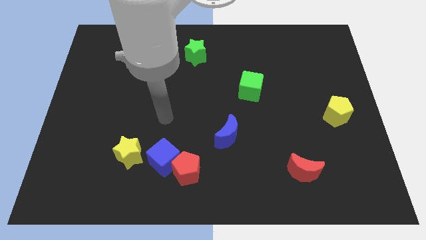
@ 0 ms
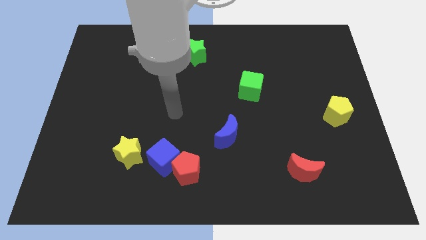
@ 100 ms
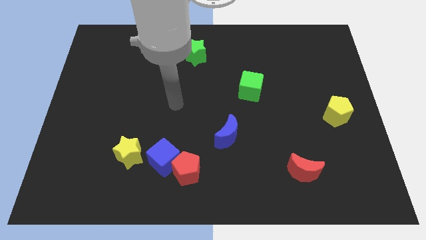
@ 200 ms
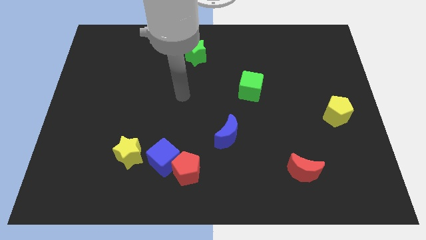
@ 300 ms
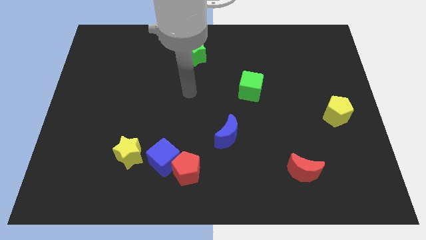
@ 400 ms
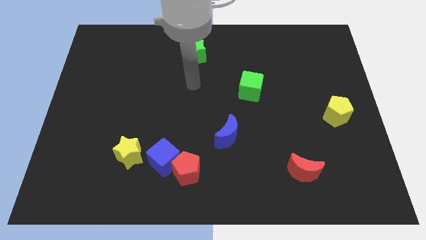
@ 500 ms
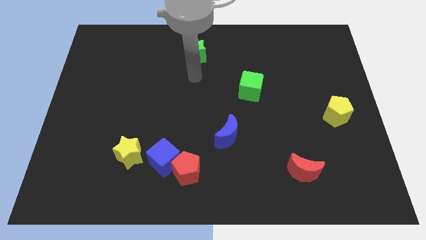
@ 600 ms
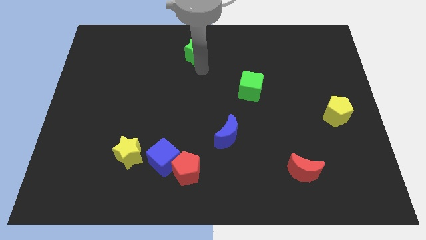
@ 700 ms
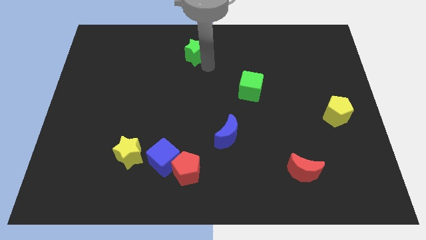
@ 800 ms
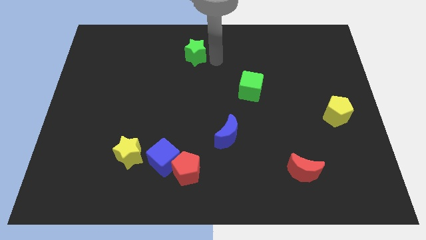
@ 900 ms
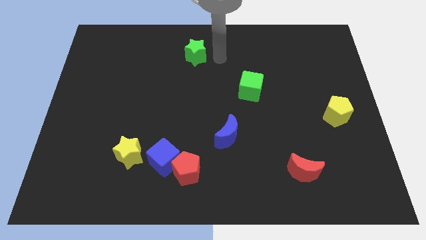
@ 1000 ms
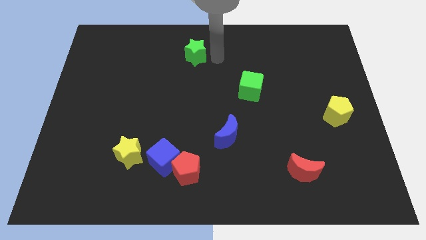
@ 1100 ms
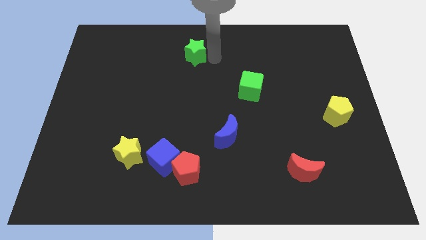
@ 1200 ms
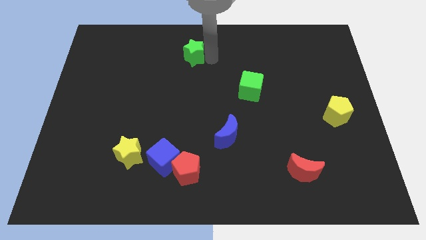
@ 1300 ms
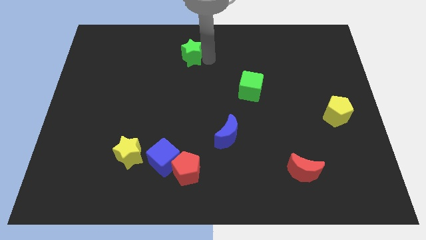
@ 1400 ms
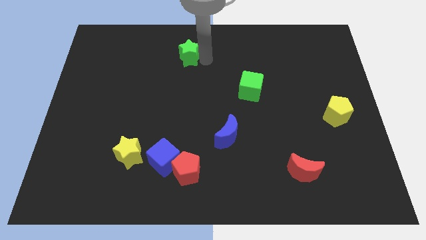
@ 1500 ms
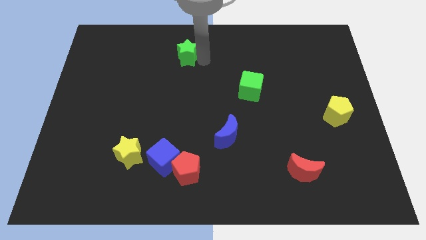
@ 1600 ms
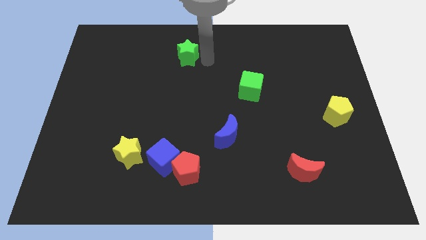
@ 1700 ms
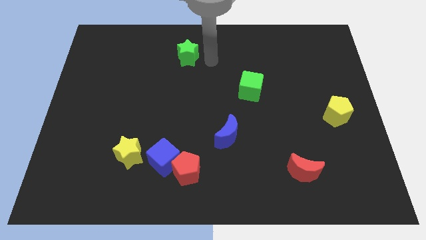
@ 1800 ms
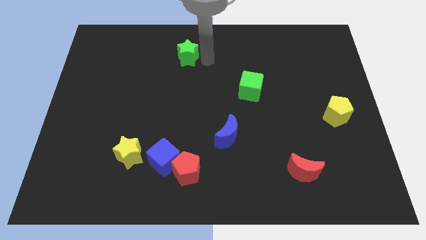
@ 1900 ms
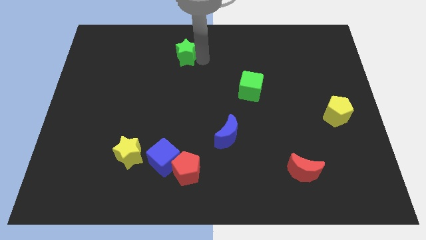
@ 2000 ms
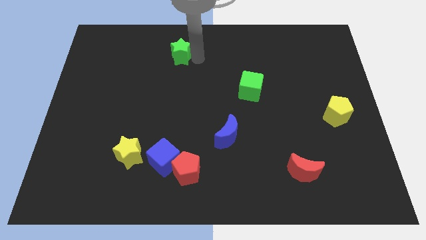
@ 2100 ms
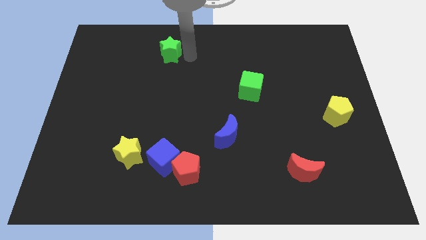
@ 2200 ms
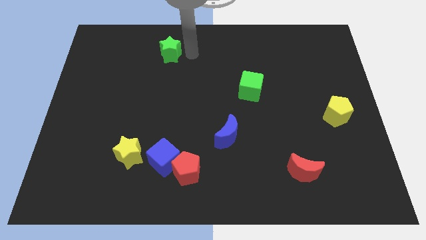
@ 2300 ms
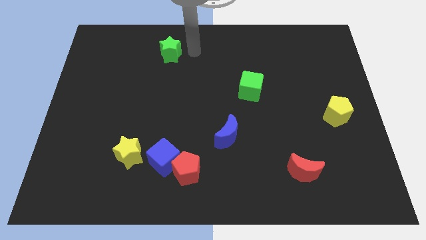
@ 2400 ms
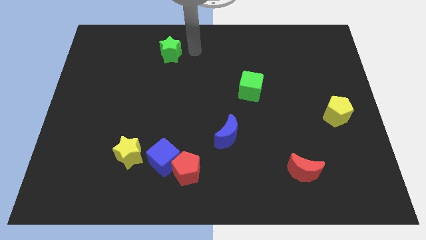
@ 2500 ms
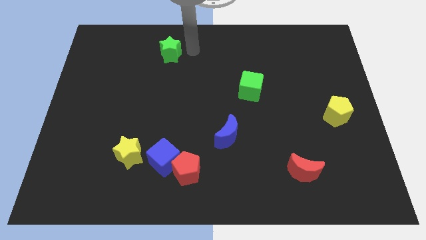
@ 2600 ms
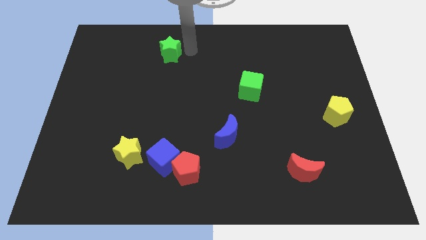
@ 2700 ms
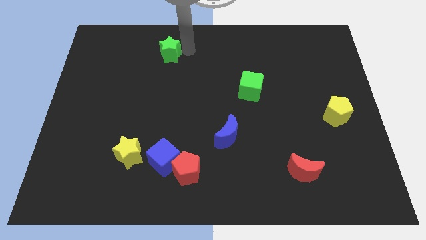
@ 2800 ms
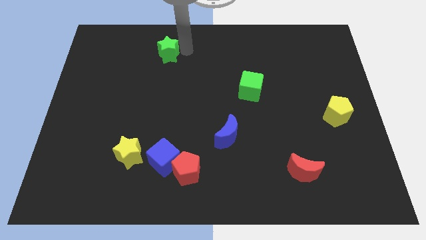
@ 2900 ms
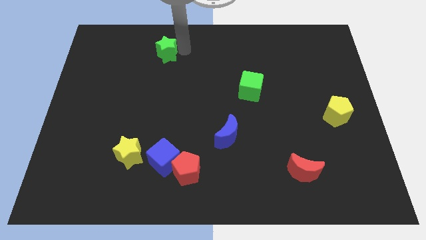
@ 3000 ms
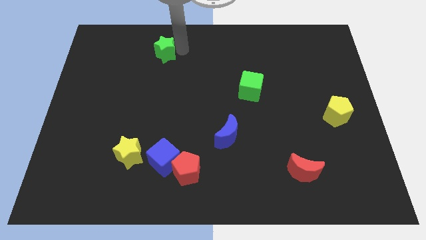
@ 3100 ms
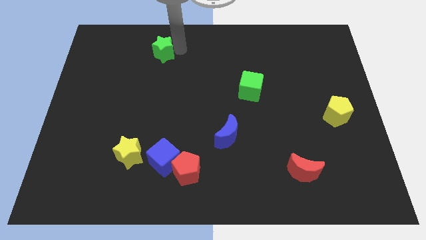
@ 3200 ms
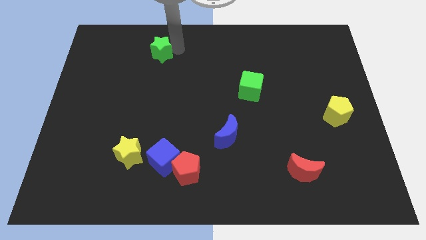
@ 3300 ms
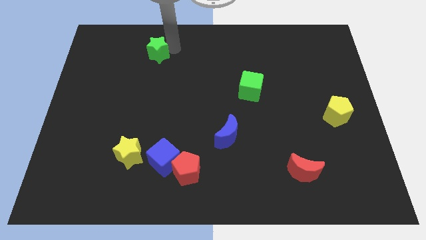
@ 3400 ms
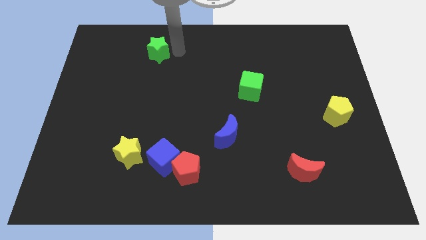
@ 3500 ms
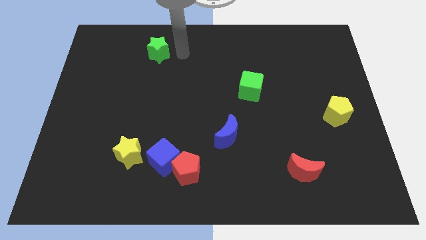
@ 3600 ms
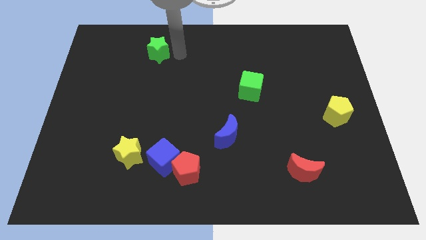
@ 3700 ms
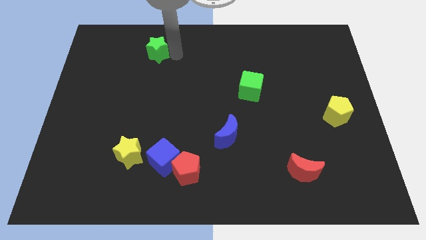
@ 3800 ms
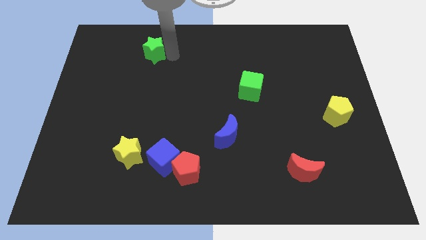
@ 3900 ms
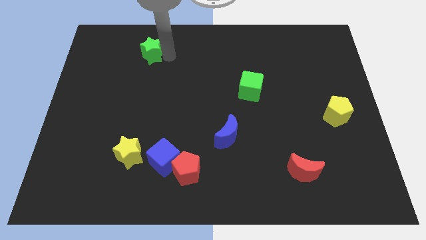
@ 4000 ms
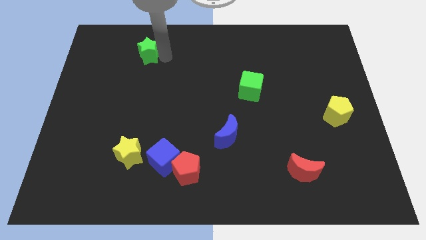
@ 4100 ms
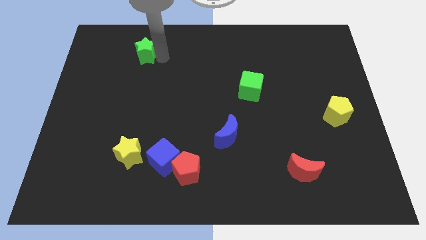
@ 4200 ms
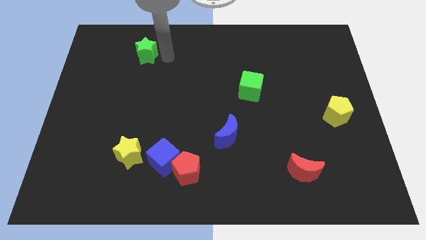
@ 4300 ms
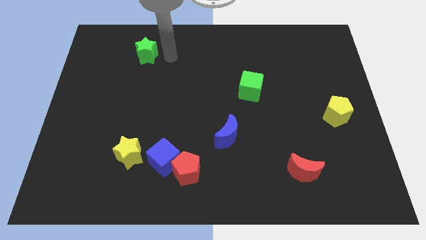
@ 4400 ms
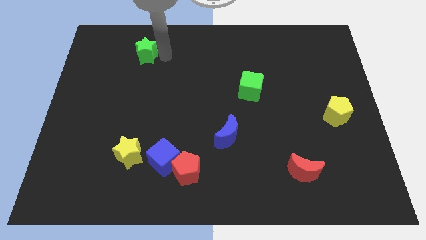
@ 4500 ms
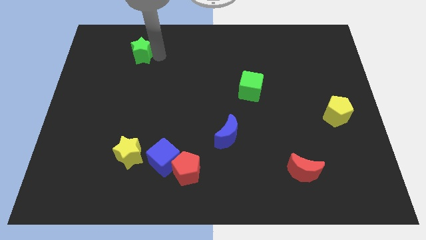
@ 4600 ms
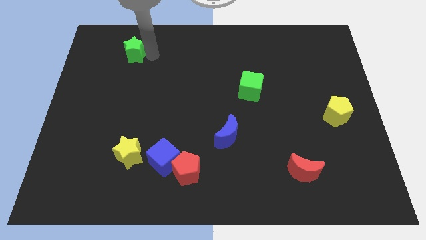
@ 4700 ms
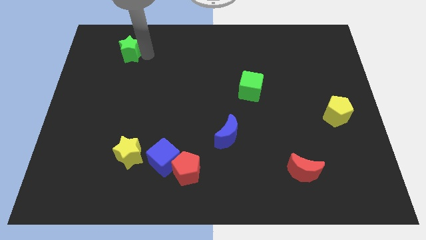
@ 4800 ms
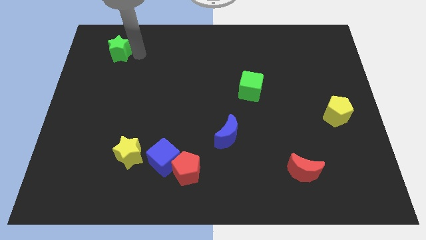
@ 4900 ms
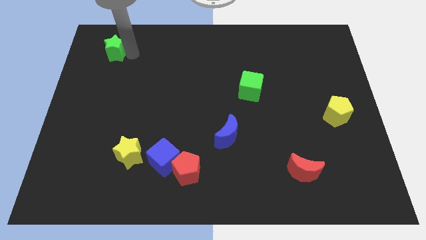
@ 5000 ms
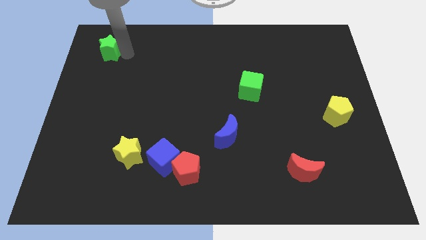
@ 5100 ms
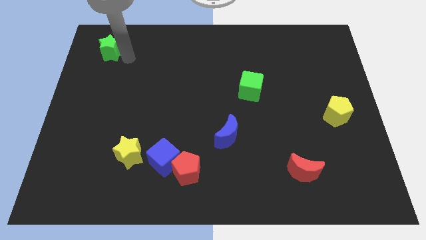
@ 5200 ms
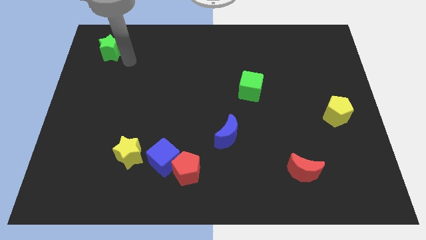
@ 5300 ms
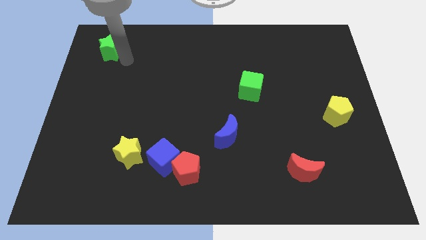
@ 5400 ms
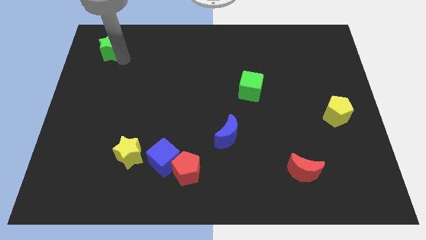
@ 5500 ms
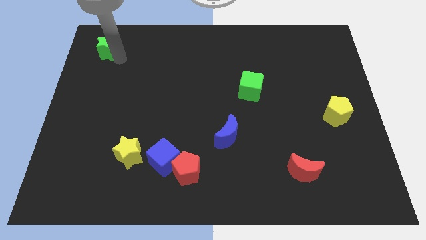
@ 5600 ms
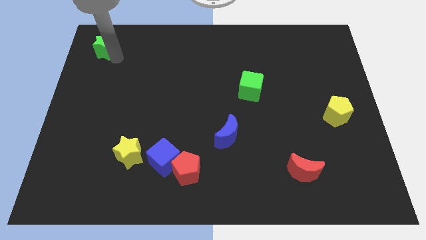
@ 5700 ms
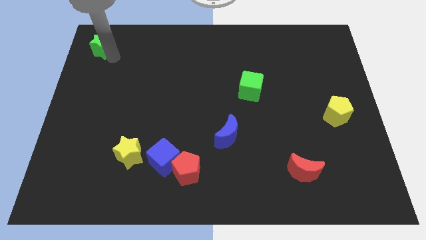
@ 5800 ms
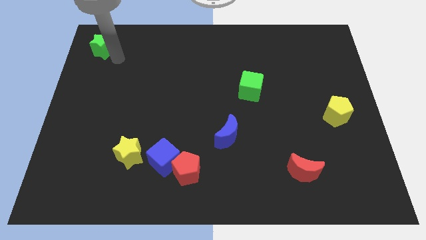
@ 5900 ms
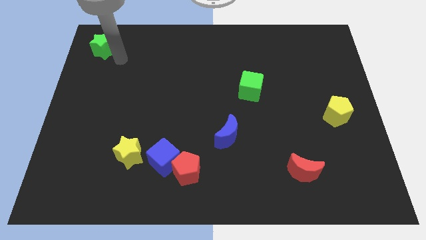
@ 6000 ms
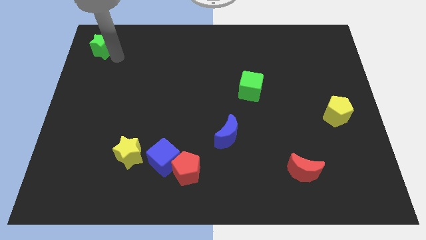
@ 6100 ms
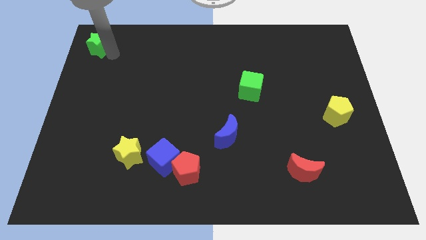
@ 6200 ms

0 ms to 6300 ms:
push the green star to the top left of the board

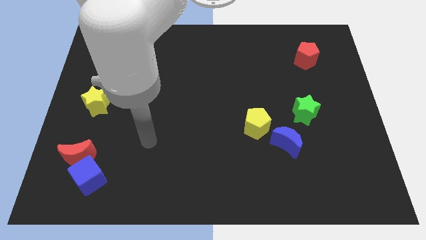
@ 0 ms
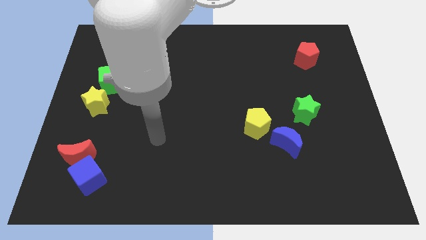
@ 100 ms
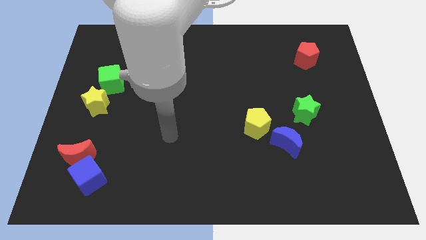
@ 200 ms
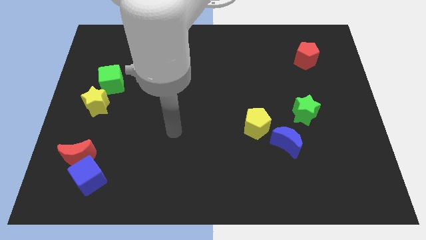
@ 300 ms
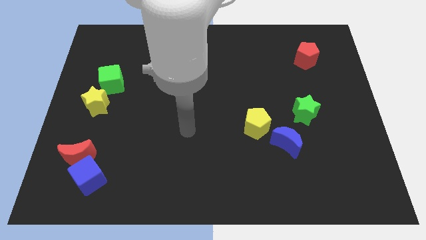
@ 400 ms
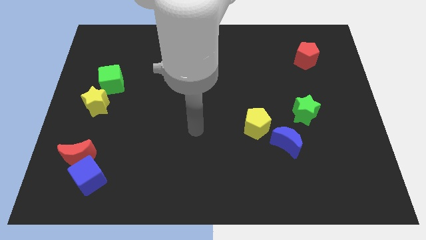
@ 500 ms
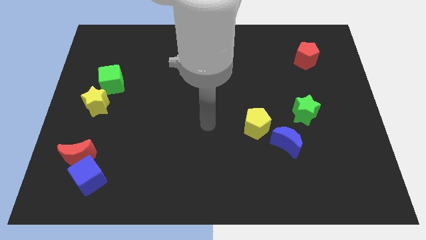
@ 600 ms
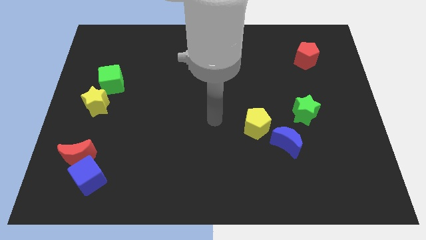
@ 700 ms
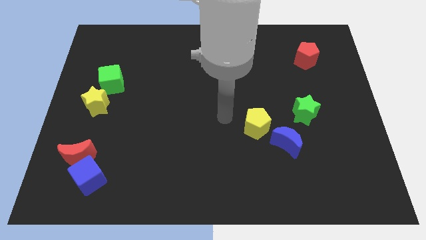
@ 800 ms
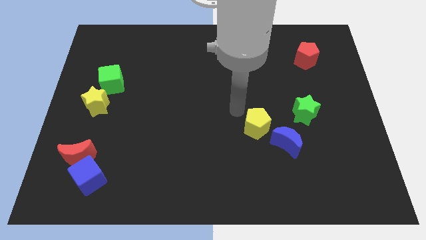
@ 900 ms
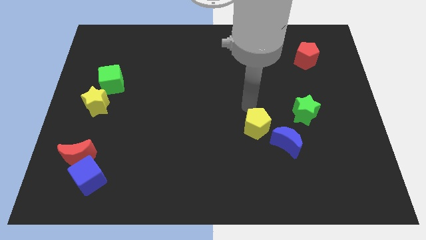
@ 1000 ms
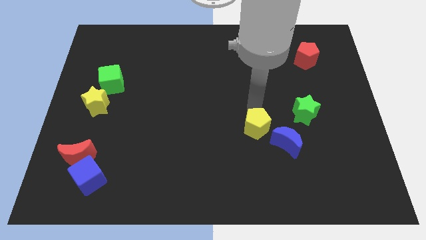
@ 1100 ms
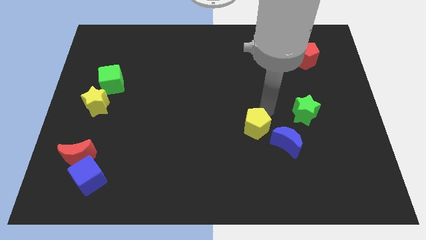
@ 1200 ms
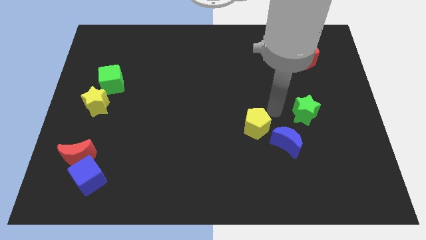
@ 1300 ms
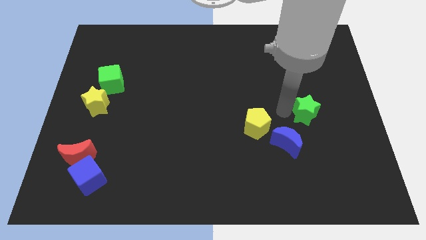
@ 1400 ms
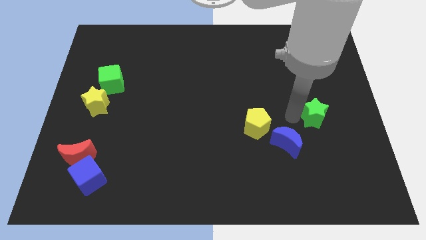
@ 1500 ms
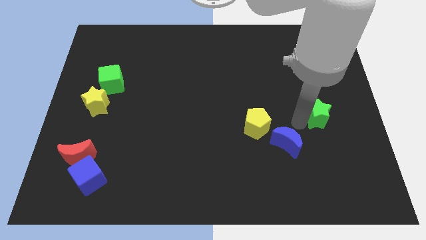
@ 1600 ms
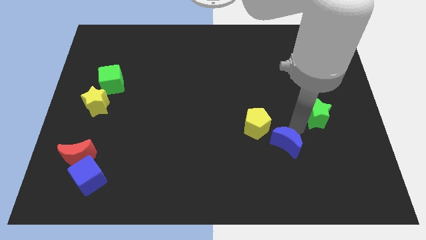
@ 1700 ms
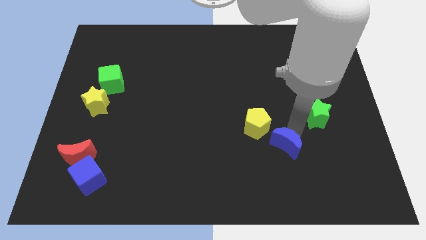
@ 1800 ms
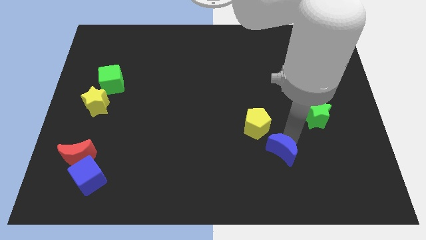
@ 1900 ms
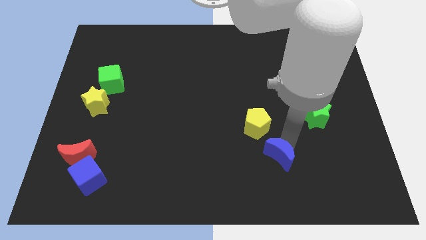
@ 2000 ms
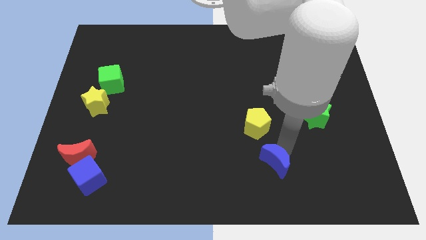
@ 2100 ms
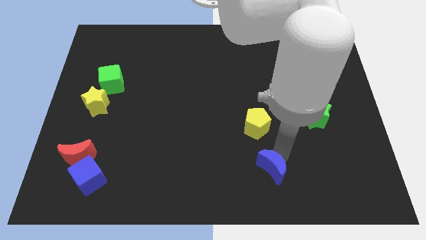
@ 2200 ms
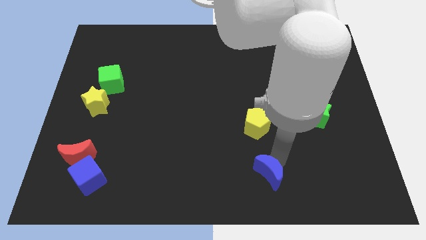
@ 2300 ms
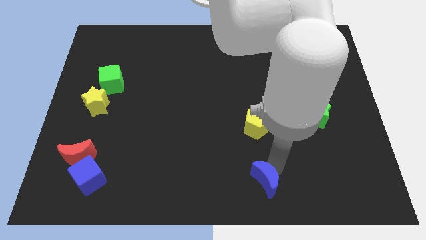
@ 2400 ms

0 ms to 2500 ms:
push the blue moon to the bottom
